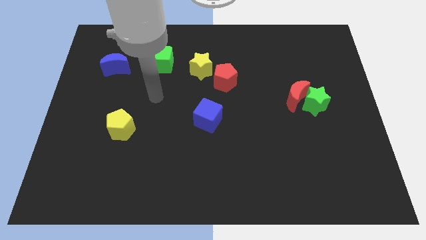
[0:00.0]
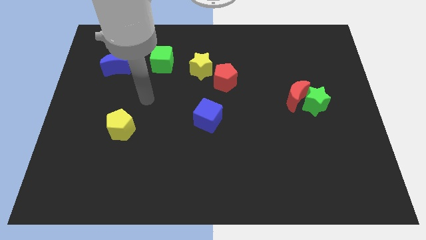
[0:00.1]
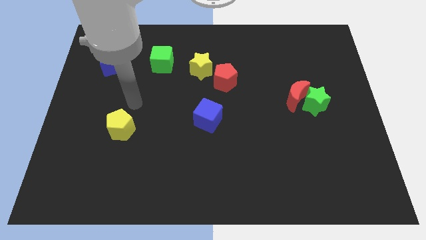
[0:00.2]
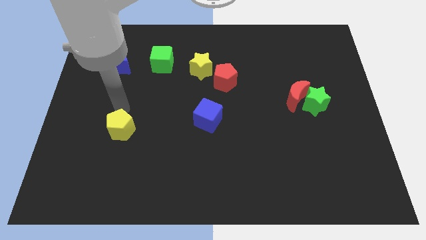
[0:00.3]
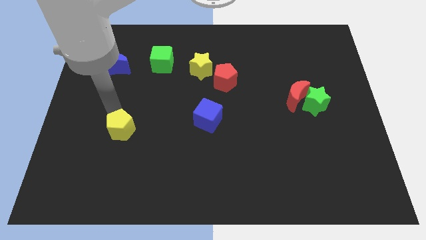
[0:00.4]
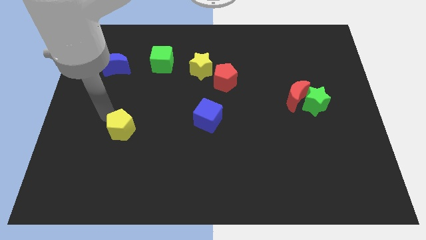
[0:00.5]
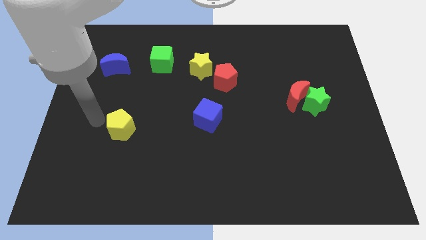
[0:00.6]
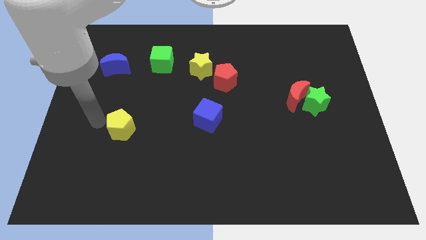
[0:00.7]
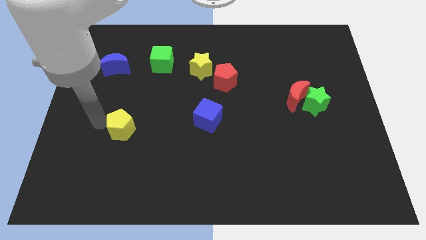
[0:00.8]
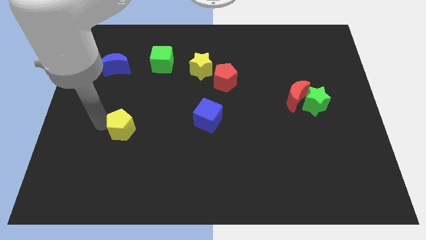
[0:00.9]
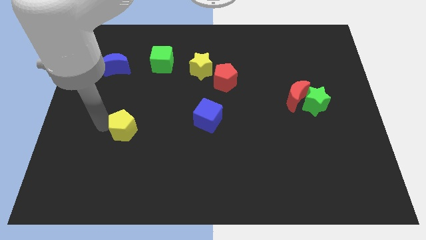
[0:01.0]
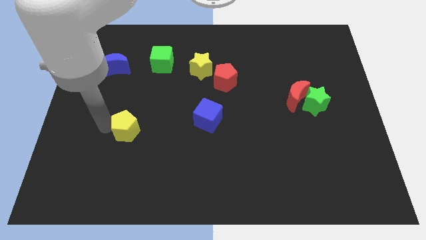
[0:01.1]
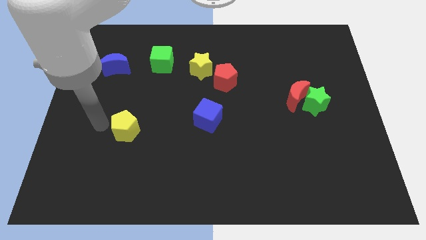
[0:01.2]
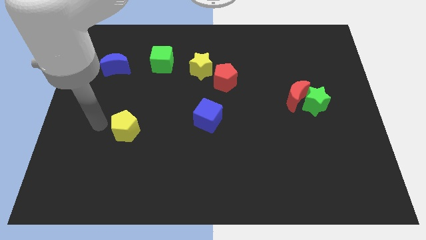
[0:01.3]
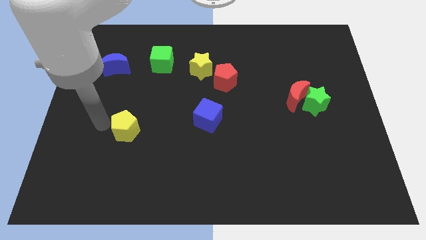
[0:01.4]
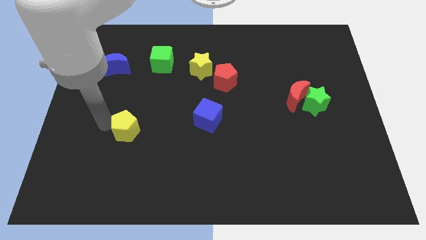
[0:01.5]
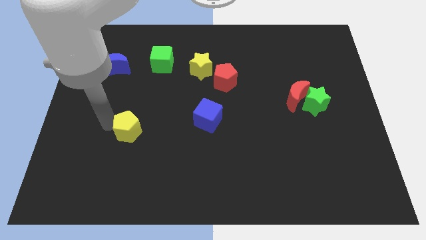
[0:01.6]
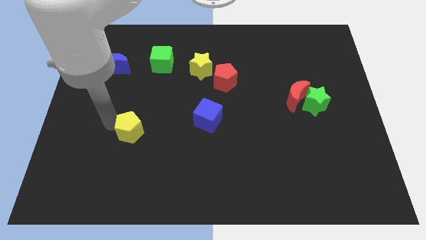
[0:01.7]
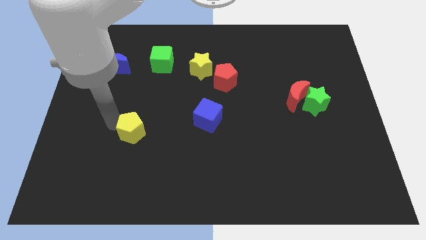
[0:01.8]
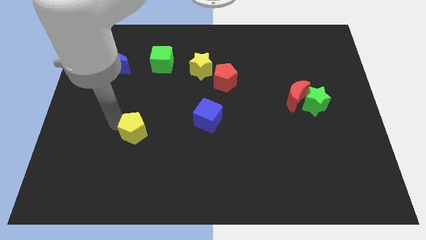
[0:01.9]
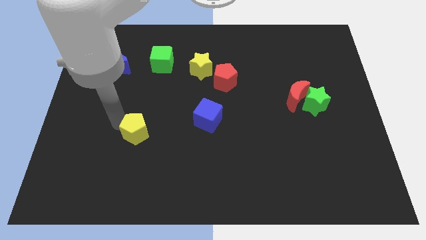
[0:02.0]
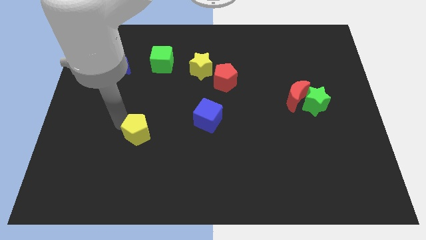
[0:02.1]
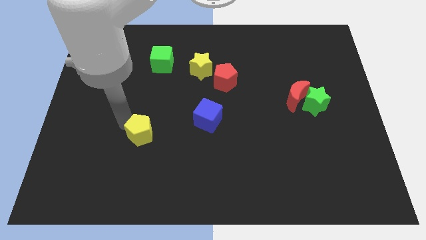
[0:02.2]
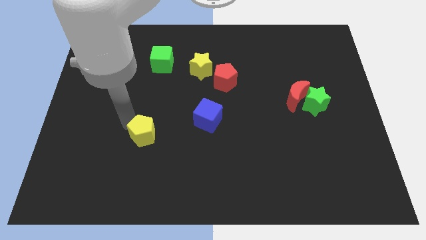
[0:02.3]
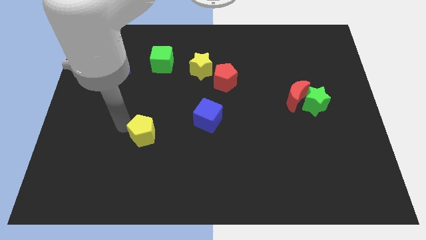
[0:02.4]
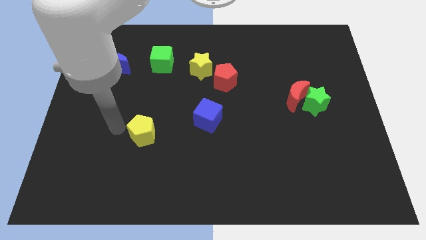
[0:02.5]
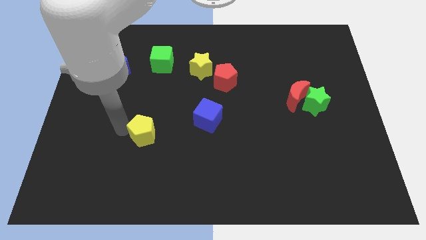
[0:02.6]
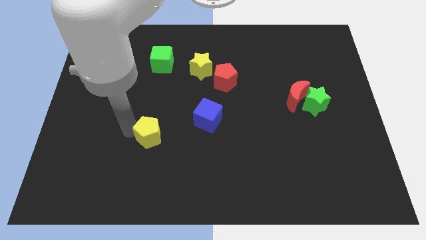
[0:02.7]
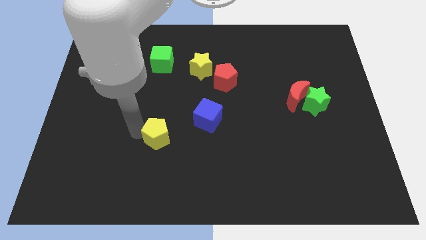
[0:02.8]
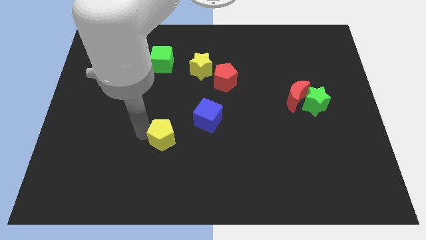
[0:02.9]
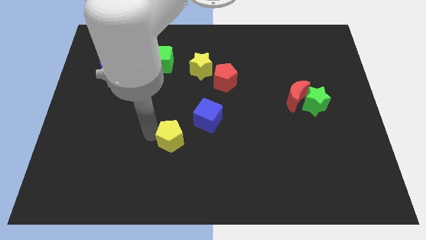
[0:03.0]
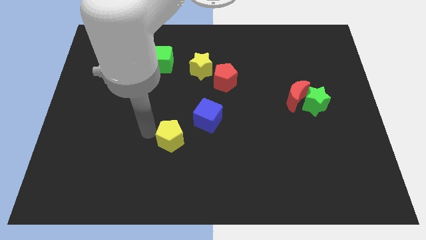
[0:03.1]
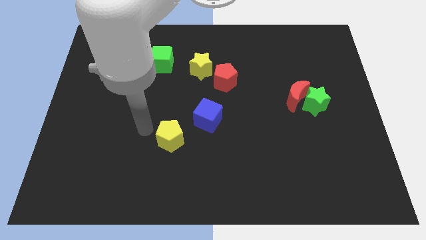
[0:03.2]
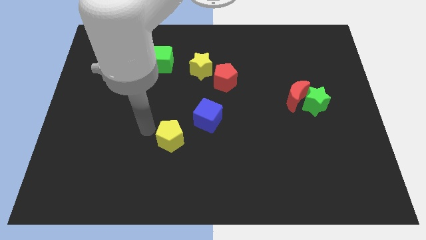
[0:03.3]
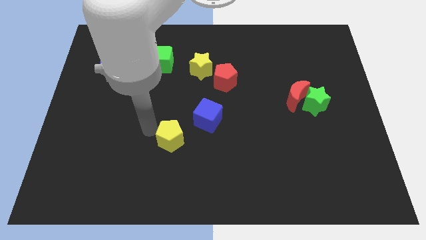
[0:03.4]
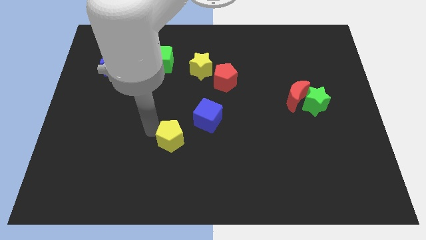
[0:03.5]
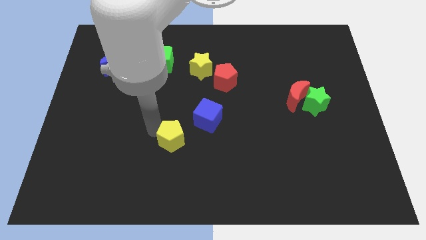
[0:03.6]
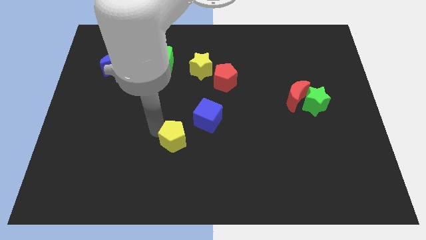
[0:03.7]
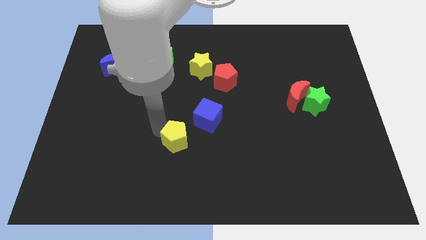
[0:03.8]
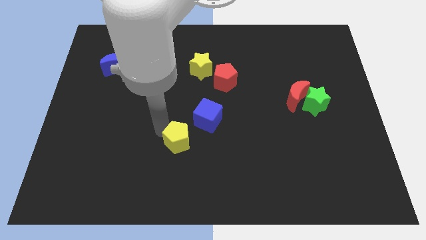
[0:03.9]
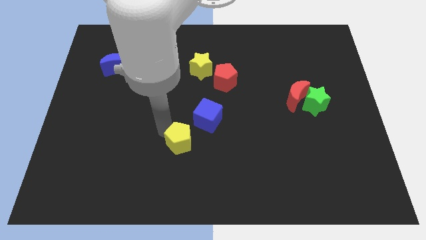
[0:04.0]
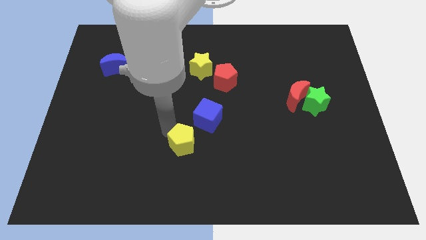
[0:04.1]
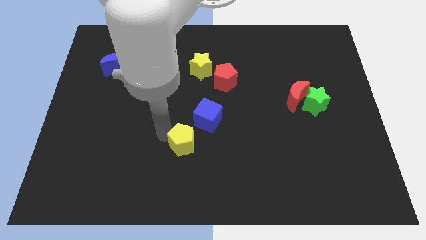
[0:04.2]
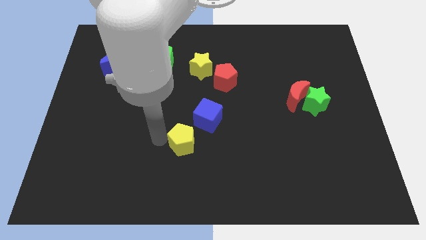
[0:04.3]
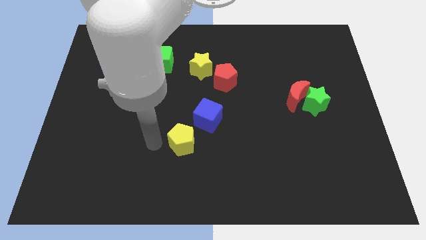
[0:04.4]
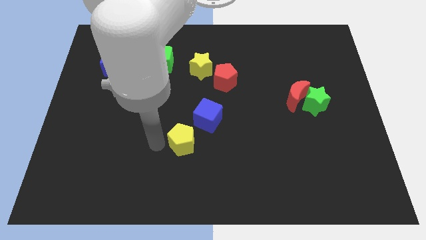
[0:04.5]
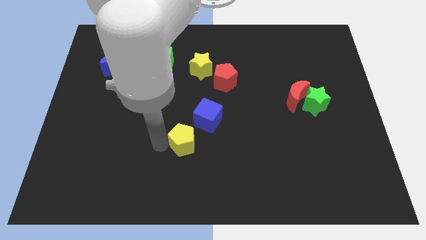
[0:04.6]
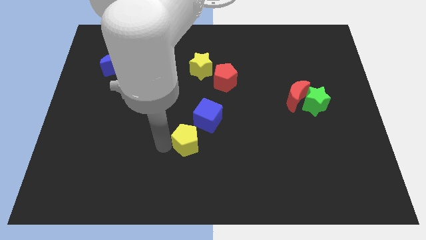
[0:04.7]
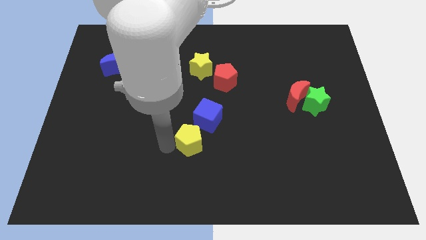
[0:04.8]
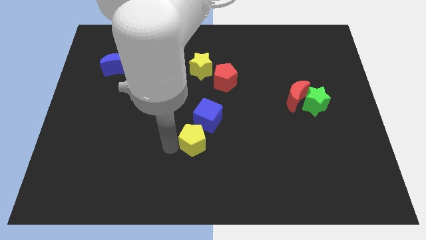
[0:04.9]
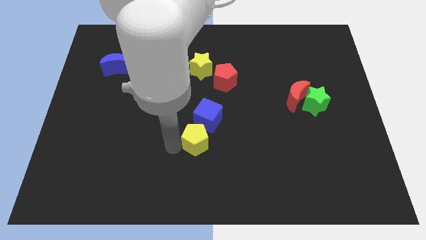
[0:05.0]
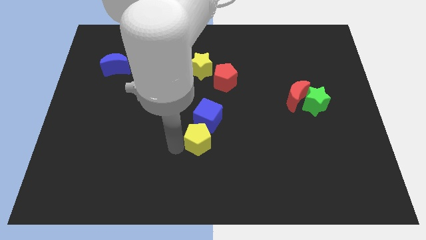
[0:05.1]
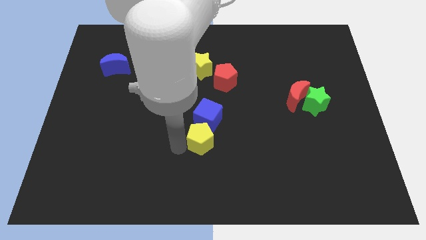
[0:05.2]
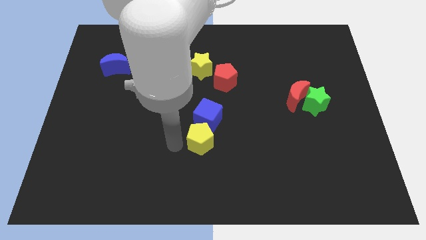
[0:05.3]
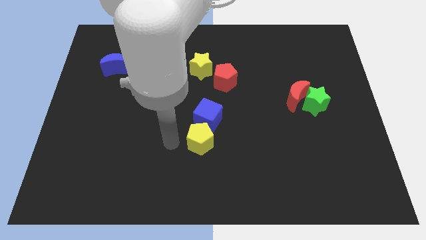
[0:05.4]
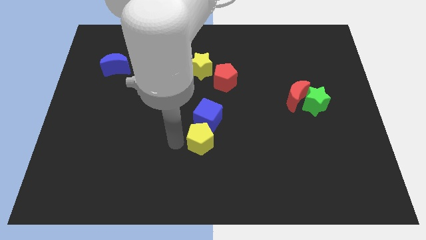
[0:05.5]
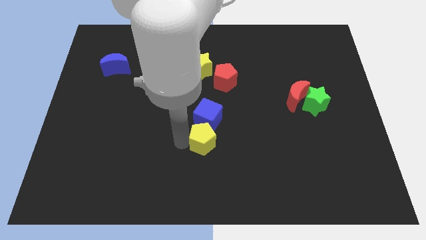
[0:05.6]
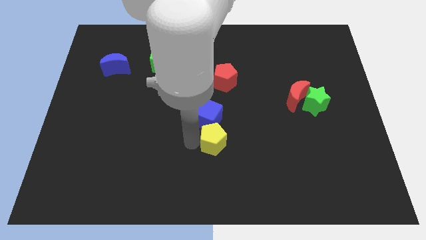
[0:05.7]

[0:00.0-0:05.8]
push the yellow pentagon right

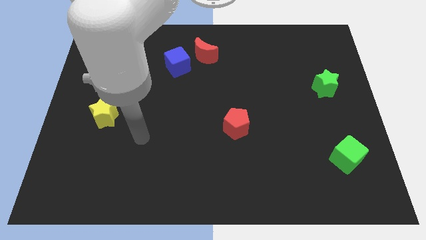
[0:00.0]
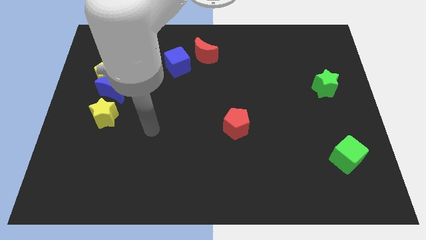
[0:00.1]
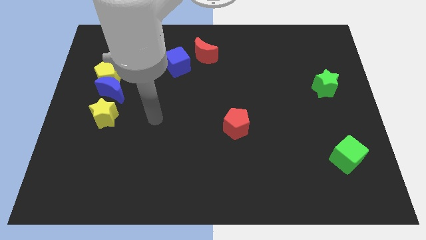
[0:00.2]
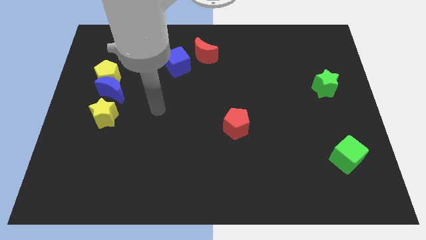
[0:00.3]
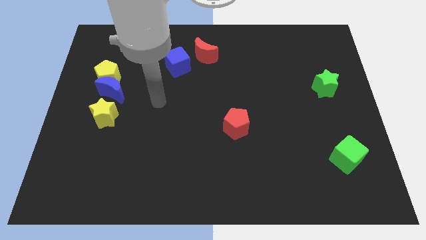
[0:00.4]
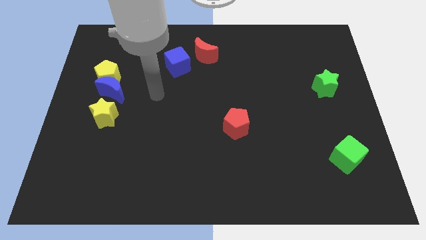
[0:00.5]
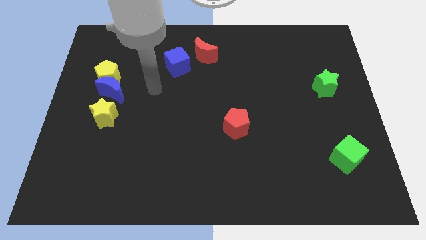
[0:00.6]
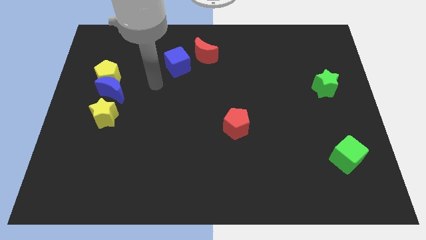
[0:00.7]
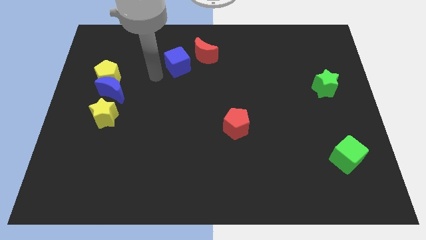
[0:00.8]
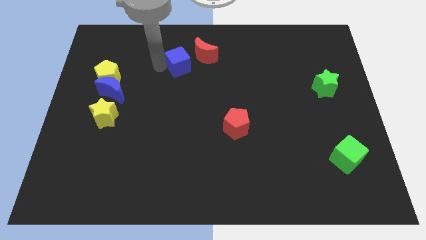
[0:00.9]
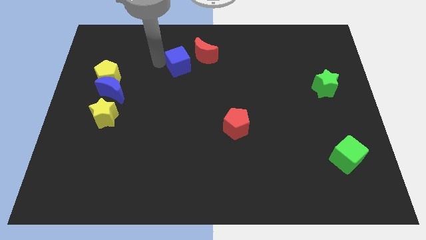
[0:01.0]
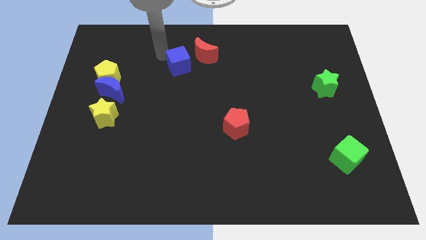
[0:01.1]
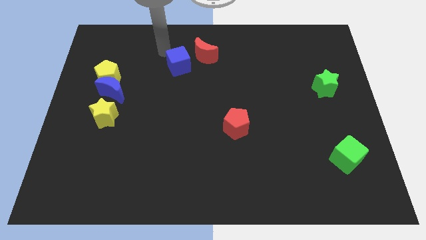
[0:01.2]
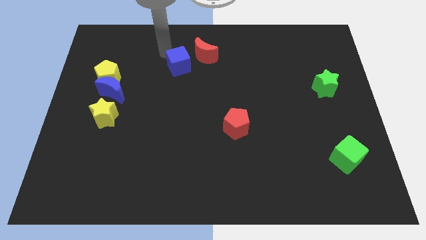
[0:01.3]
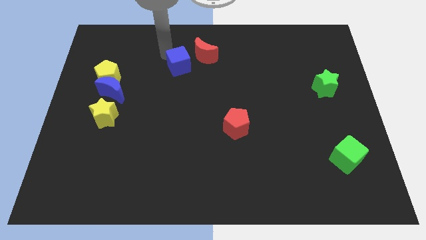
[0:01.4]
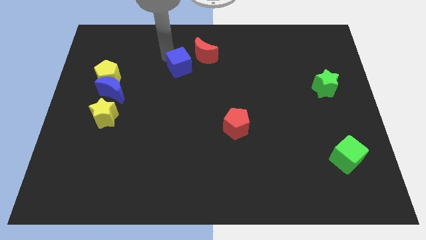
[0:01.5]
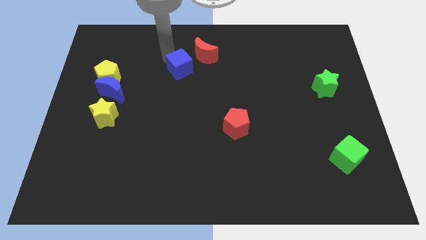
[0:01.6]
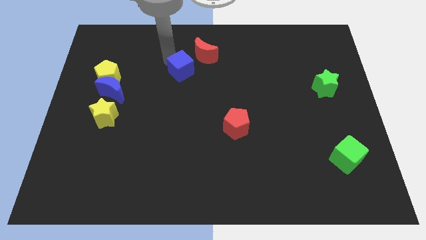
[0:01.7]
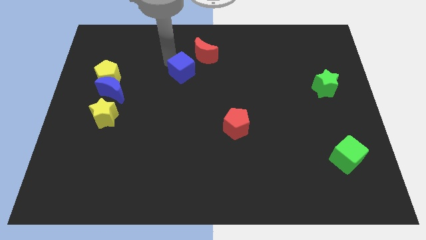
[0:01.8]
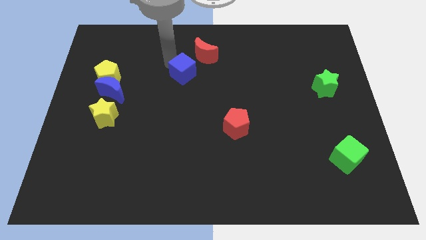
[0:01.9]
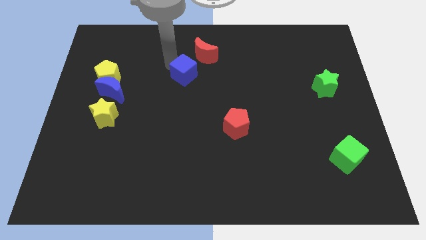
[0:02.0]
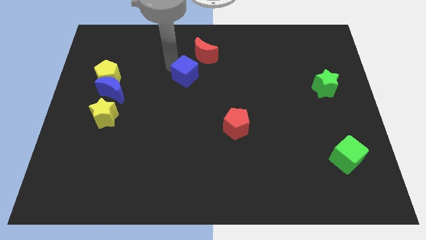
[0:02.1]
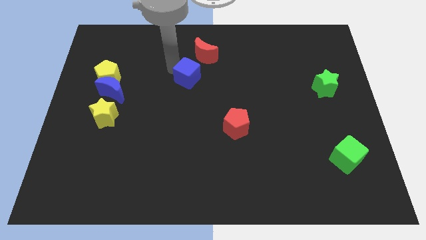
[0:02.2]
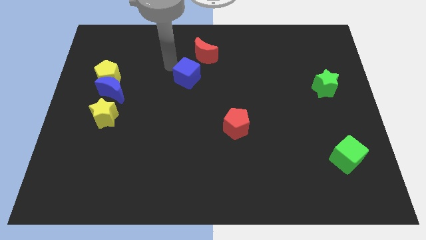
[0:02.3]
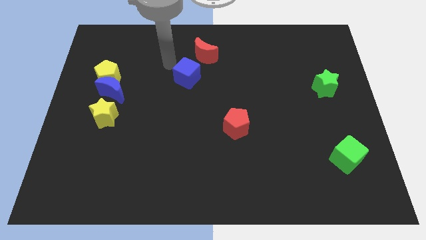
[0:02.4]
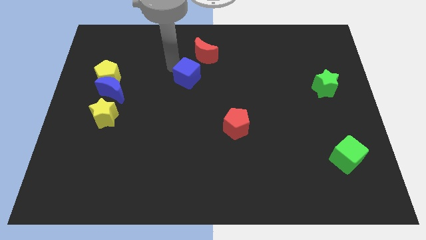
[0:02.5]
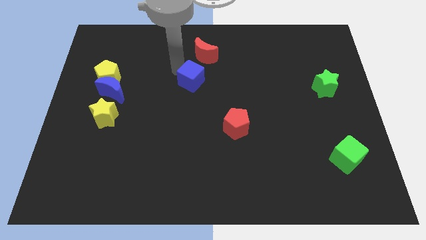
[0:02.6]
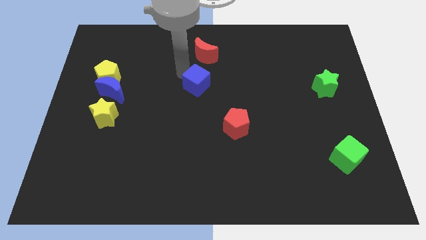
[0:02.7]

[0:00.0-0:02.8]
move the blue cube a little downwards and to the right diagonally
